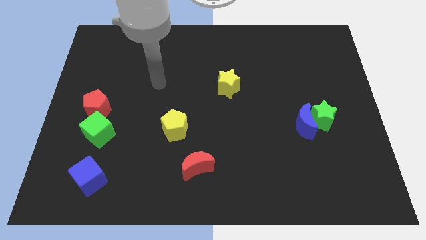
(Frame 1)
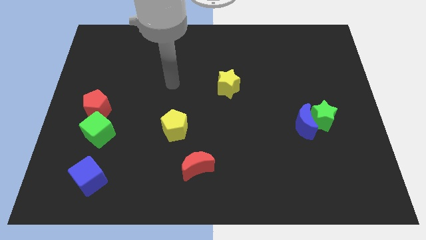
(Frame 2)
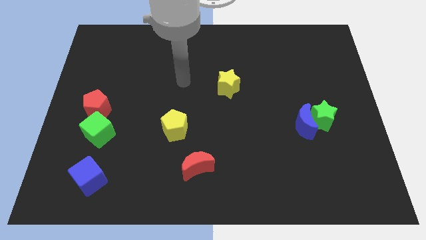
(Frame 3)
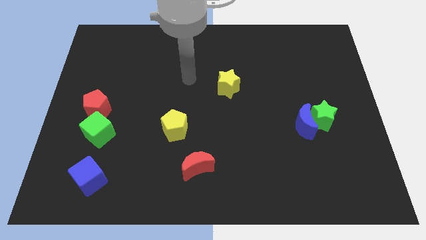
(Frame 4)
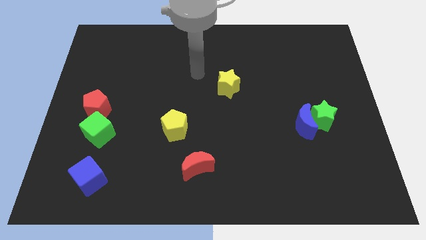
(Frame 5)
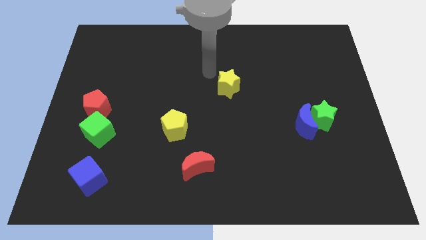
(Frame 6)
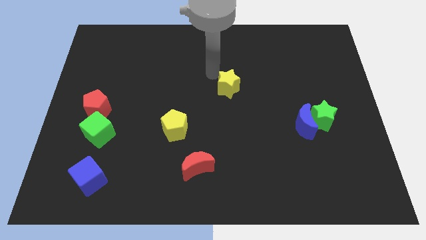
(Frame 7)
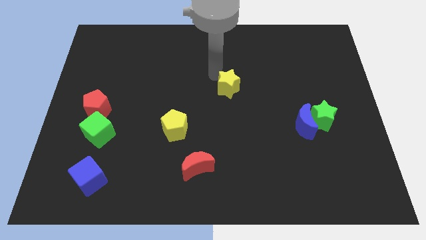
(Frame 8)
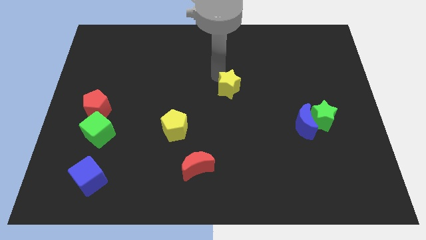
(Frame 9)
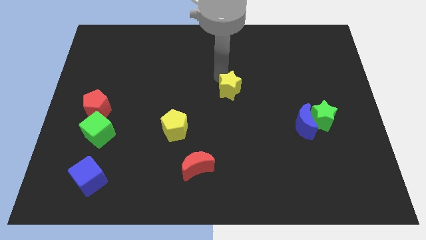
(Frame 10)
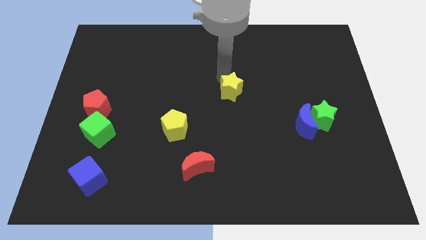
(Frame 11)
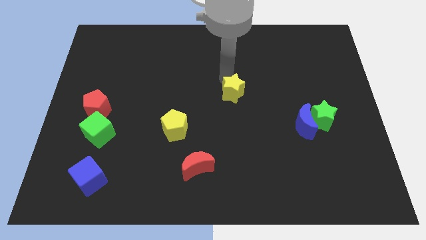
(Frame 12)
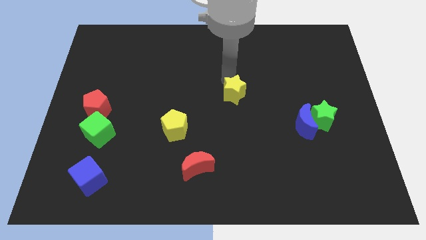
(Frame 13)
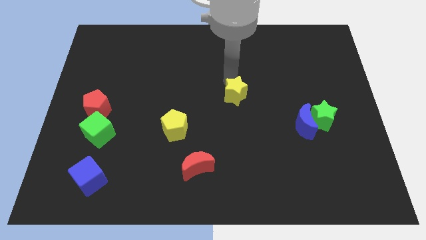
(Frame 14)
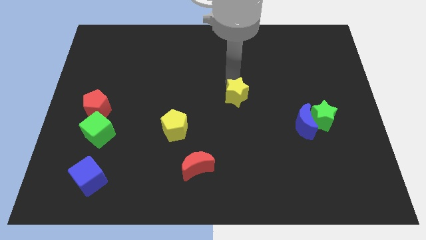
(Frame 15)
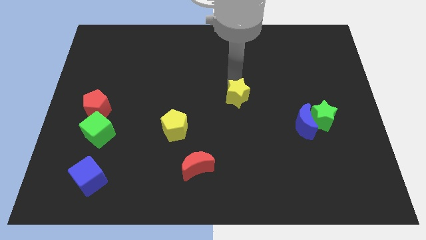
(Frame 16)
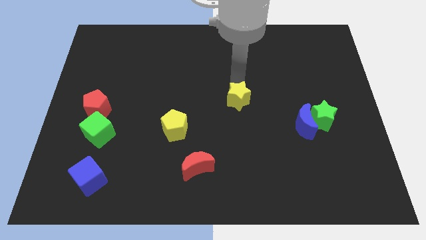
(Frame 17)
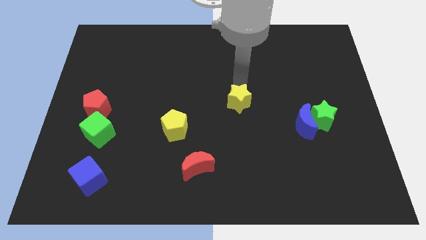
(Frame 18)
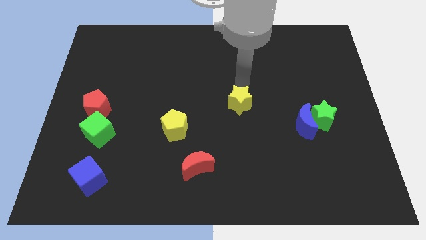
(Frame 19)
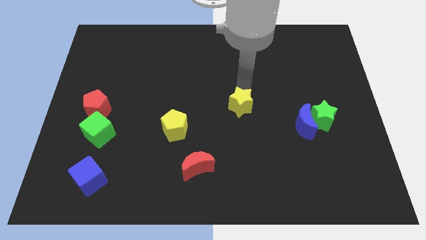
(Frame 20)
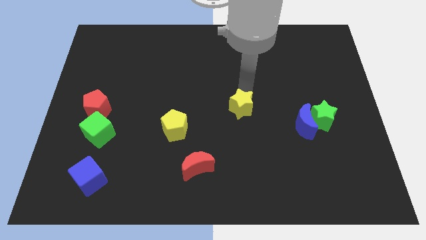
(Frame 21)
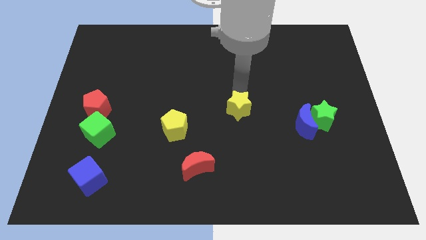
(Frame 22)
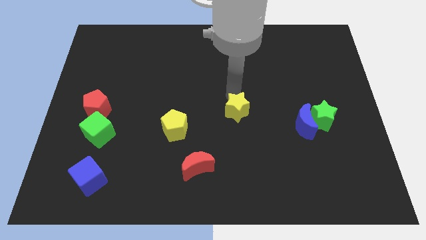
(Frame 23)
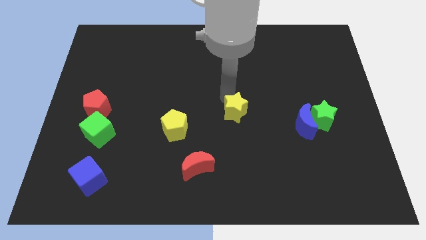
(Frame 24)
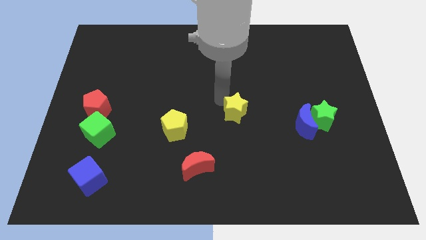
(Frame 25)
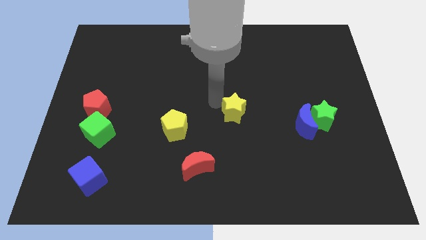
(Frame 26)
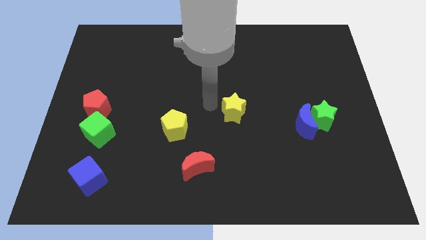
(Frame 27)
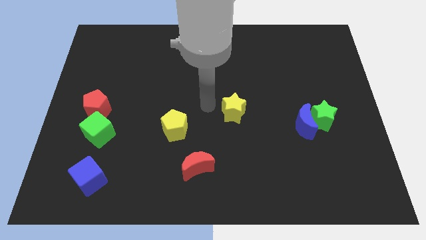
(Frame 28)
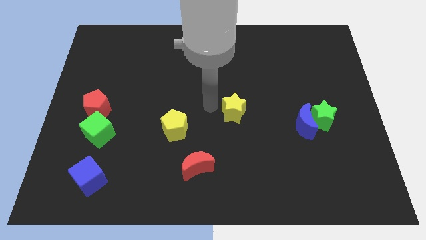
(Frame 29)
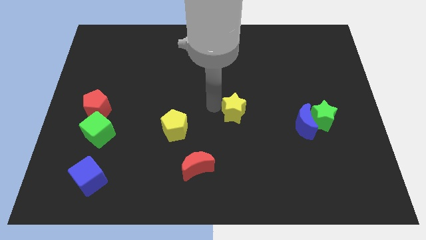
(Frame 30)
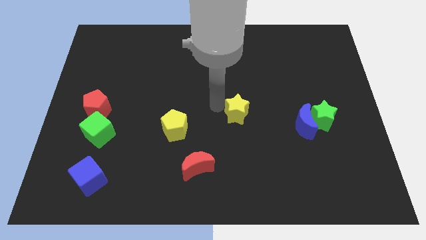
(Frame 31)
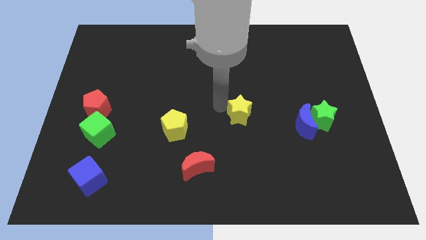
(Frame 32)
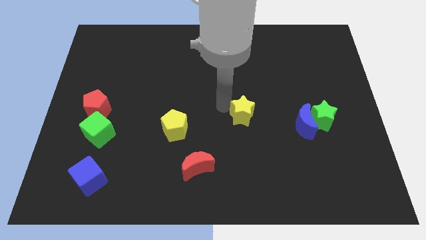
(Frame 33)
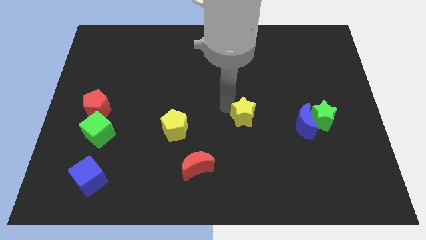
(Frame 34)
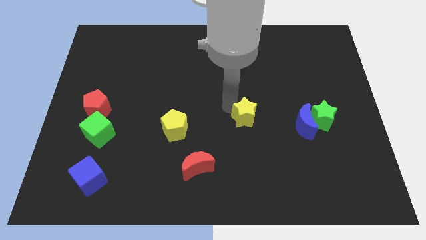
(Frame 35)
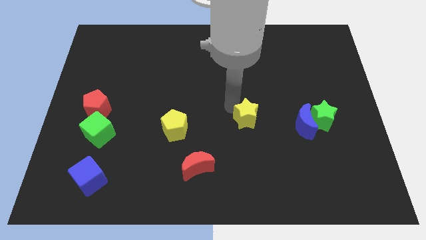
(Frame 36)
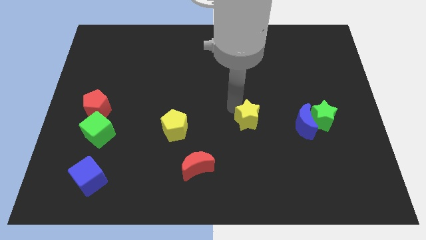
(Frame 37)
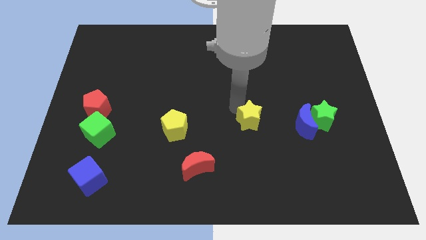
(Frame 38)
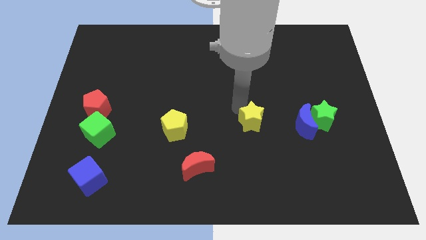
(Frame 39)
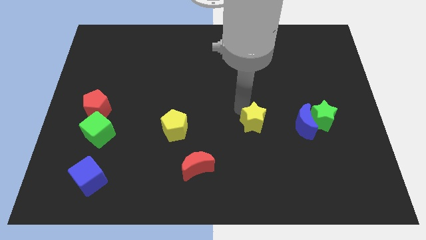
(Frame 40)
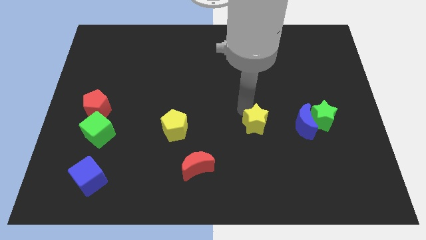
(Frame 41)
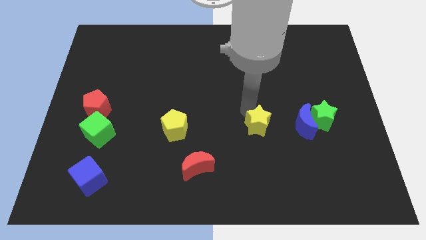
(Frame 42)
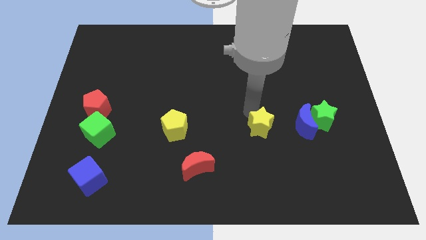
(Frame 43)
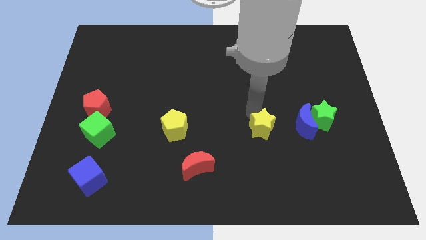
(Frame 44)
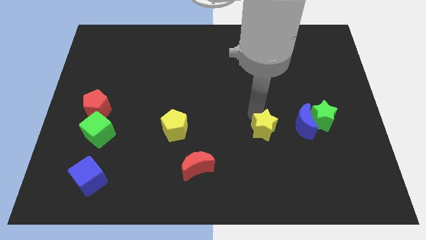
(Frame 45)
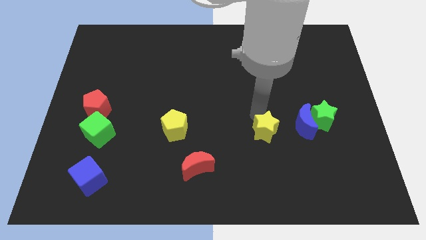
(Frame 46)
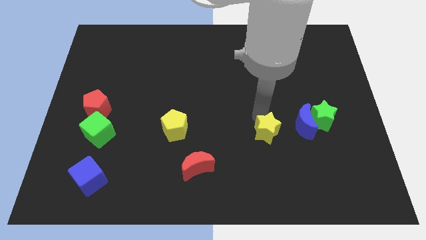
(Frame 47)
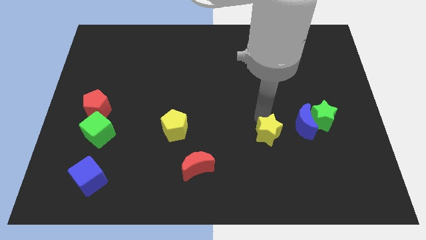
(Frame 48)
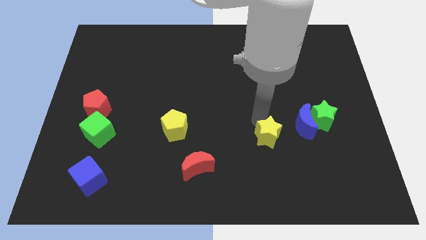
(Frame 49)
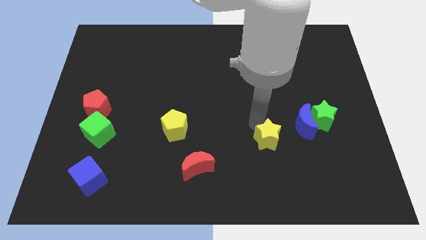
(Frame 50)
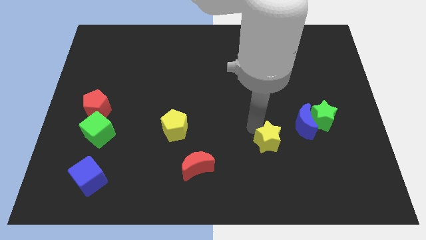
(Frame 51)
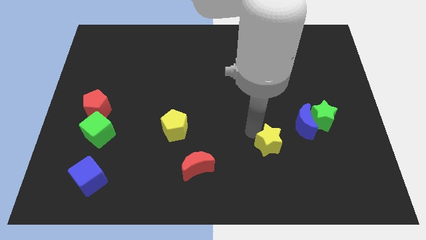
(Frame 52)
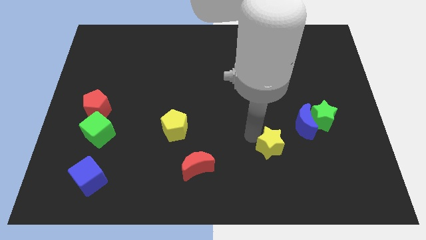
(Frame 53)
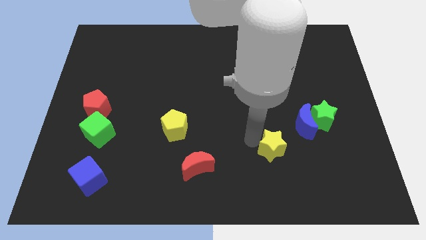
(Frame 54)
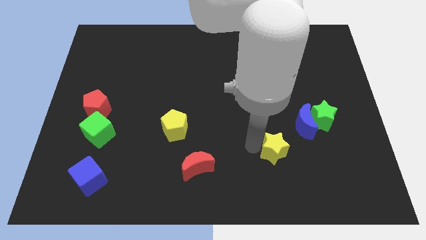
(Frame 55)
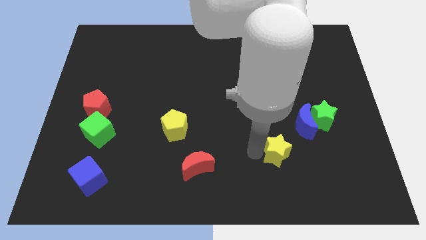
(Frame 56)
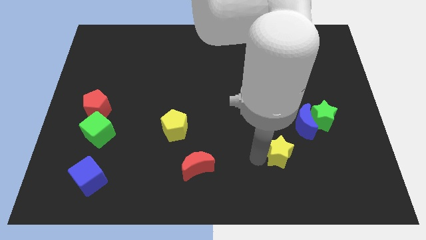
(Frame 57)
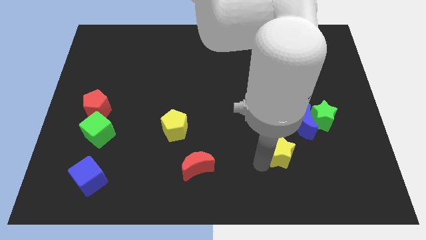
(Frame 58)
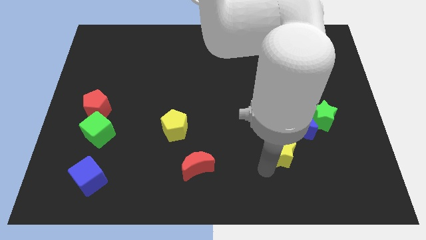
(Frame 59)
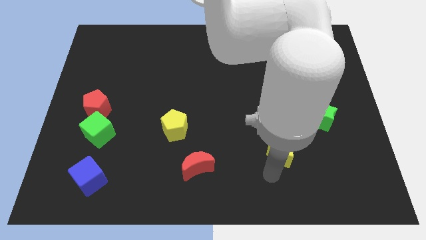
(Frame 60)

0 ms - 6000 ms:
slide the yellow star downwards and to the right

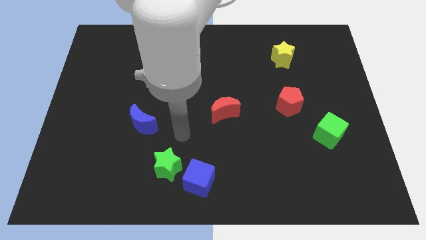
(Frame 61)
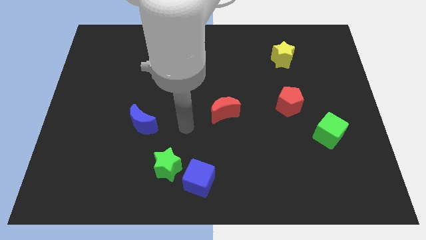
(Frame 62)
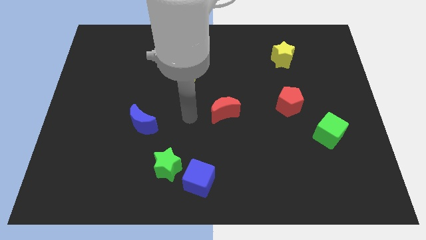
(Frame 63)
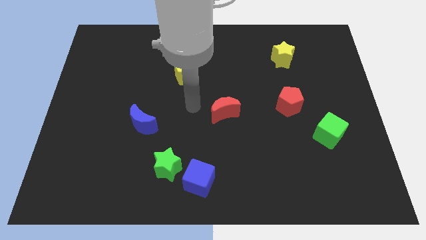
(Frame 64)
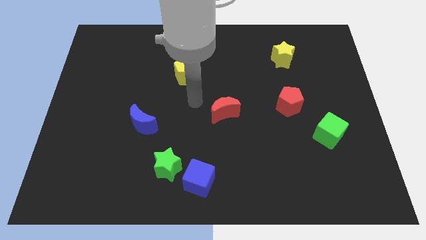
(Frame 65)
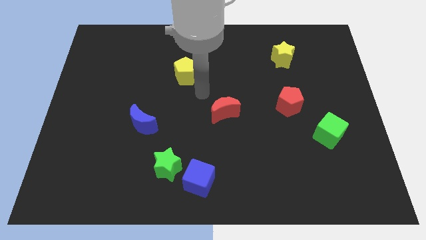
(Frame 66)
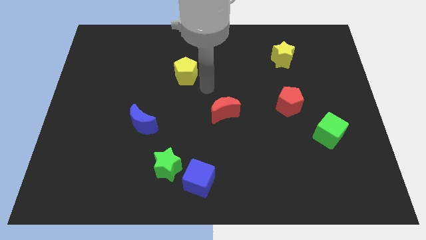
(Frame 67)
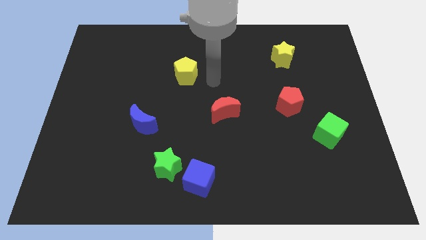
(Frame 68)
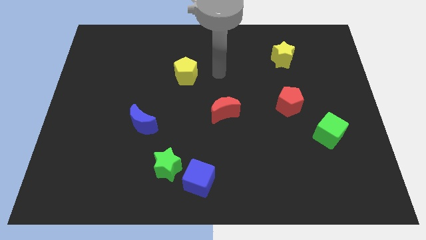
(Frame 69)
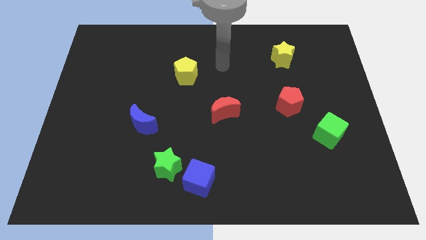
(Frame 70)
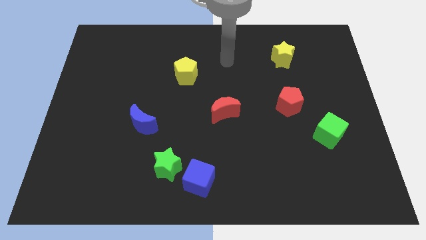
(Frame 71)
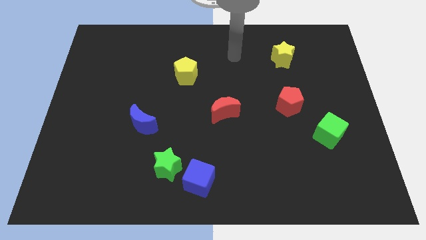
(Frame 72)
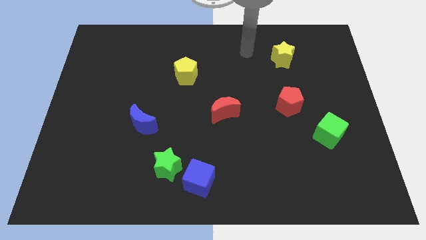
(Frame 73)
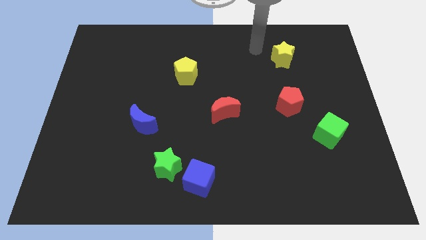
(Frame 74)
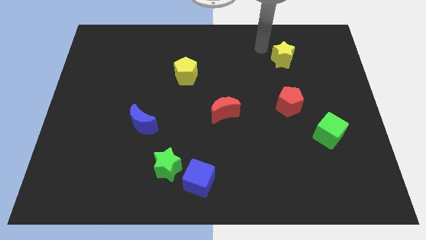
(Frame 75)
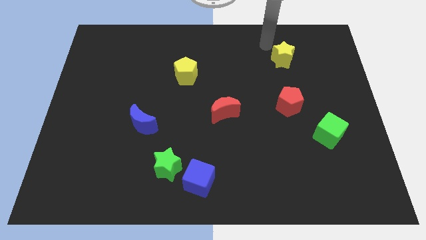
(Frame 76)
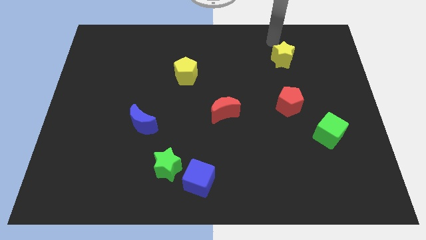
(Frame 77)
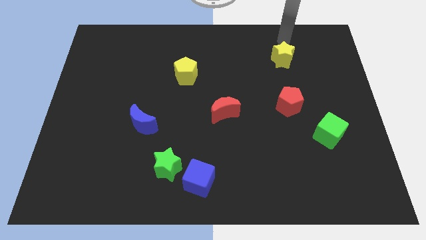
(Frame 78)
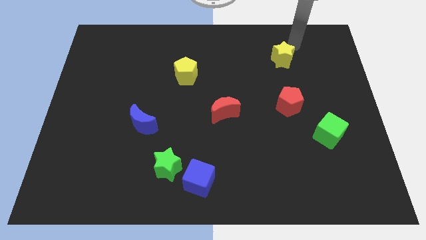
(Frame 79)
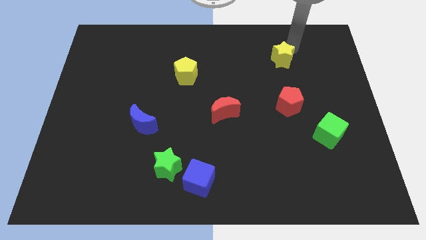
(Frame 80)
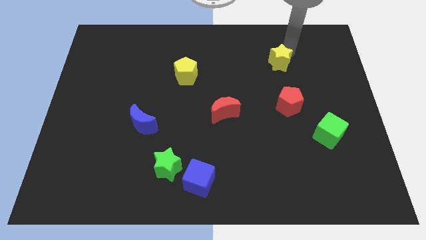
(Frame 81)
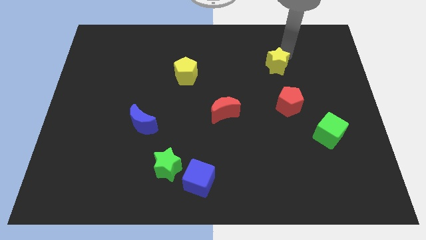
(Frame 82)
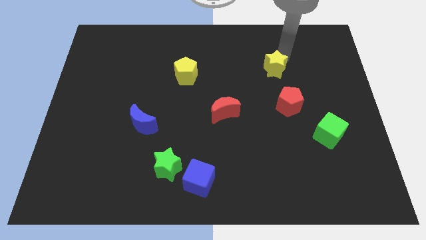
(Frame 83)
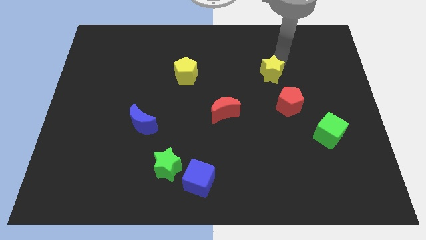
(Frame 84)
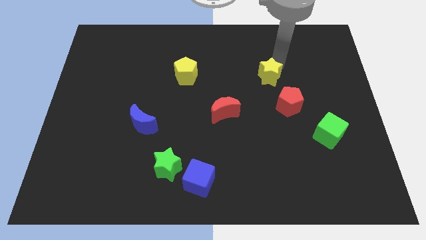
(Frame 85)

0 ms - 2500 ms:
move the yellow star diagonally downwards and left slightly
